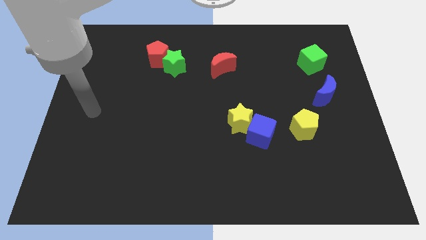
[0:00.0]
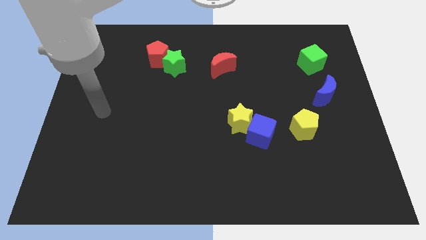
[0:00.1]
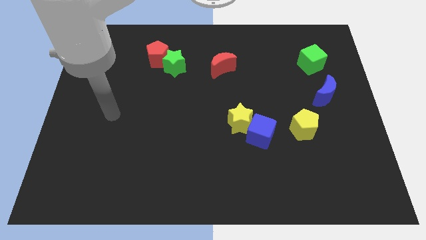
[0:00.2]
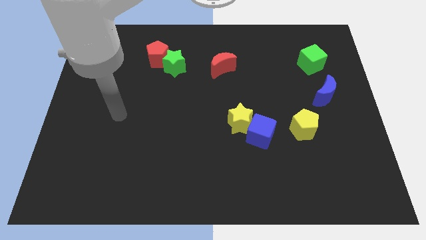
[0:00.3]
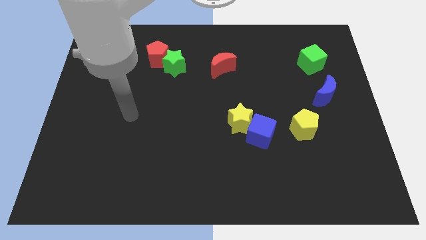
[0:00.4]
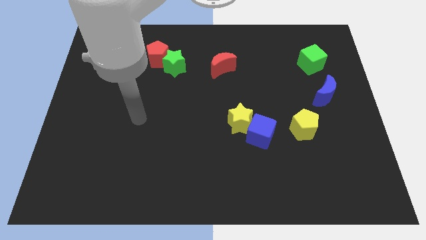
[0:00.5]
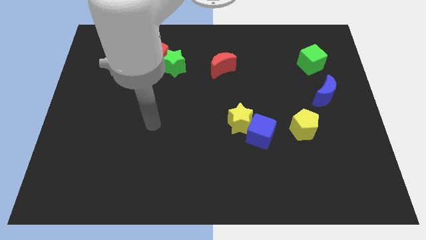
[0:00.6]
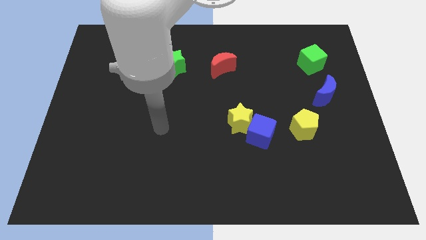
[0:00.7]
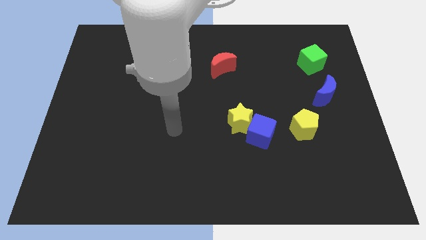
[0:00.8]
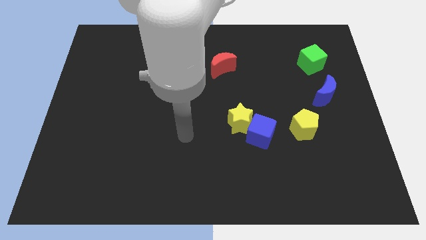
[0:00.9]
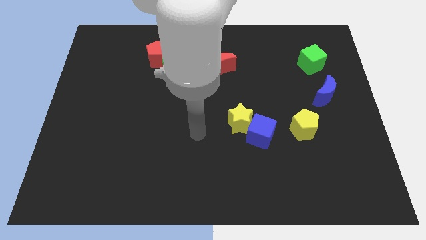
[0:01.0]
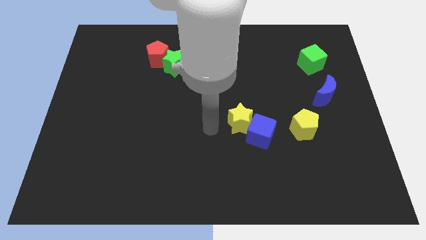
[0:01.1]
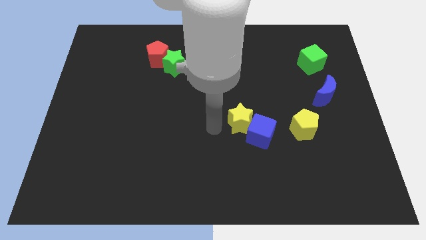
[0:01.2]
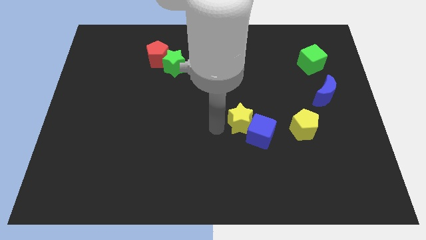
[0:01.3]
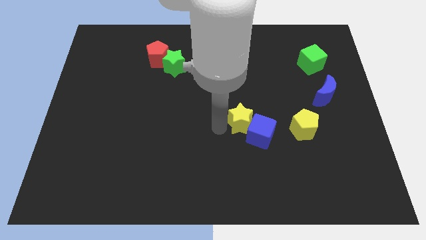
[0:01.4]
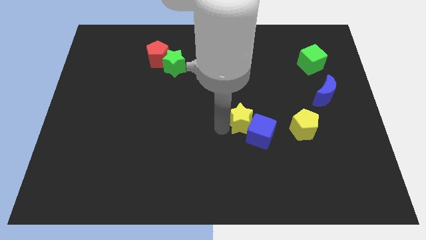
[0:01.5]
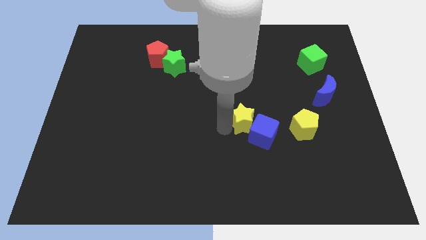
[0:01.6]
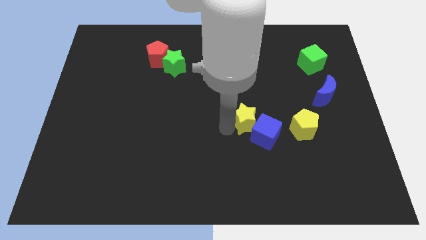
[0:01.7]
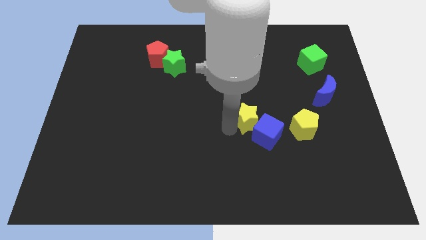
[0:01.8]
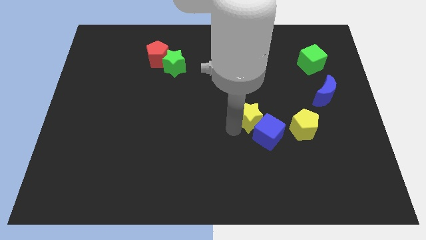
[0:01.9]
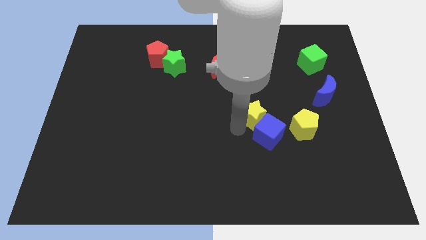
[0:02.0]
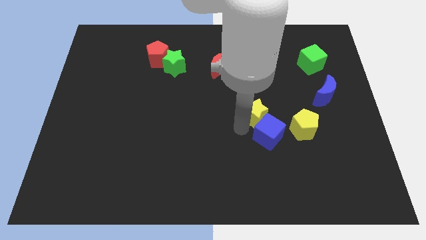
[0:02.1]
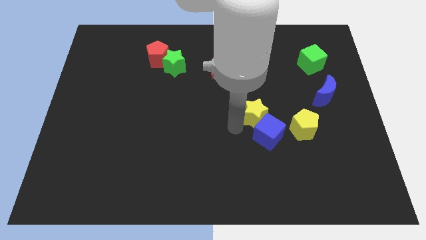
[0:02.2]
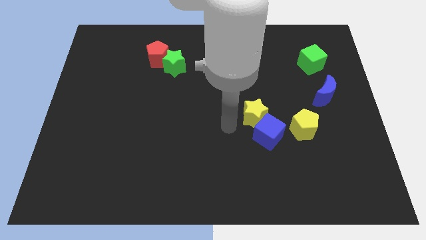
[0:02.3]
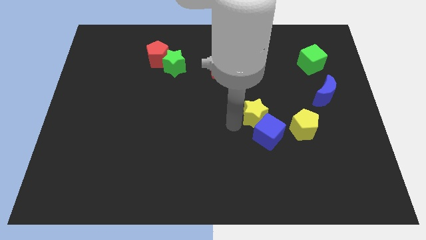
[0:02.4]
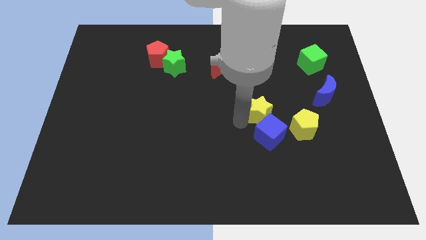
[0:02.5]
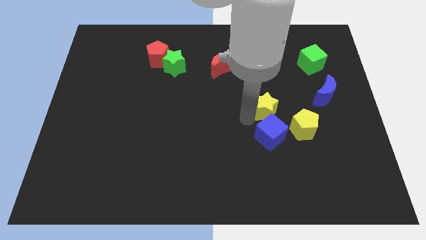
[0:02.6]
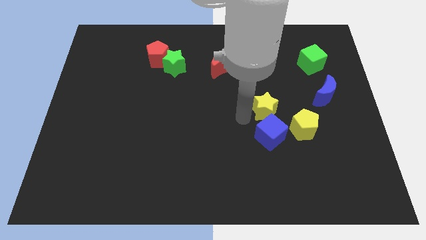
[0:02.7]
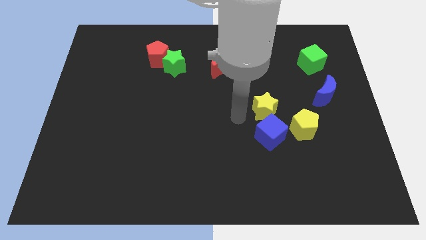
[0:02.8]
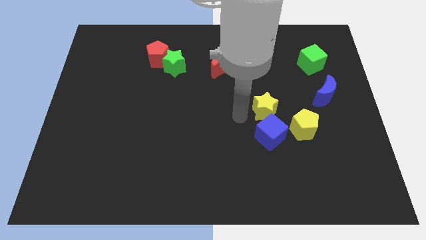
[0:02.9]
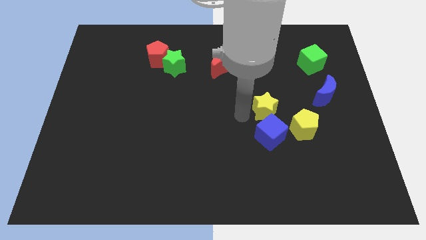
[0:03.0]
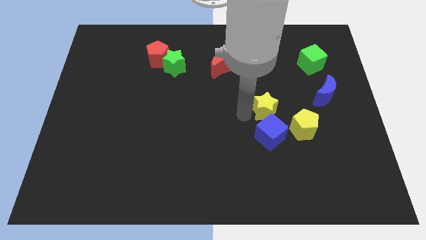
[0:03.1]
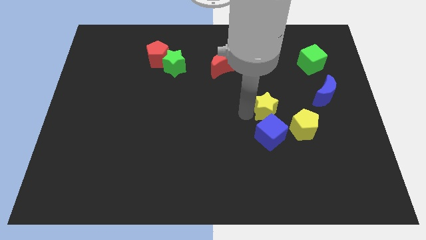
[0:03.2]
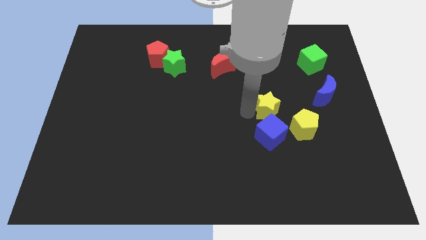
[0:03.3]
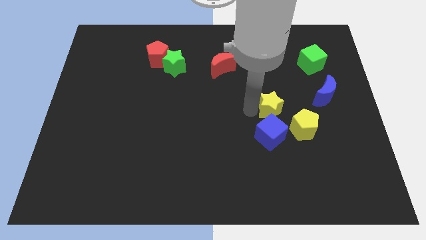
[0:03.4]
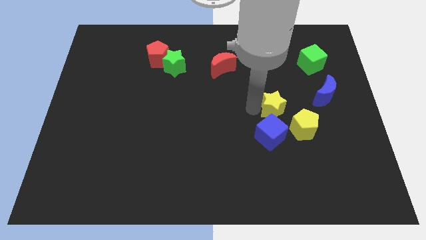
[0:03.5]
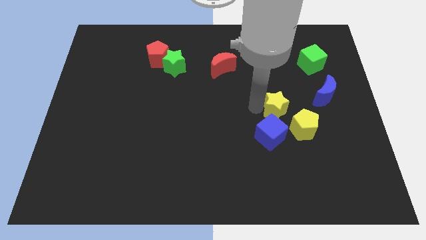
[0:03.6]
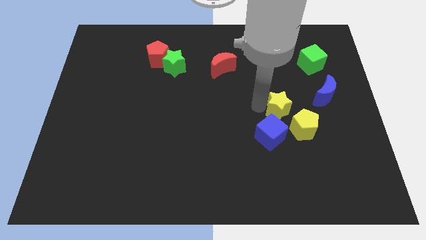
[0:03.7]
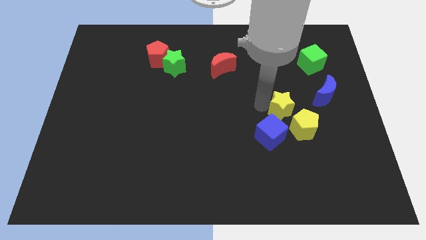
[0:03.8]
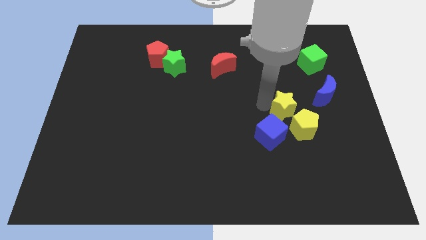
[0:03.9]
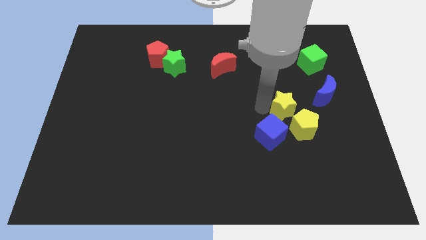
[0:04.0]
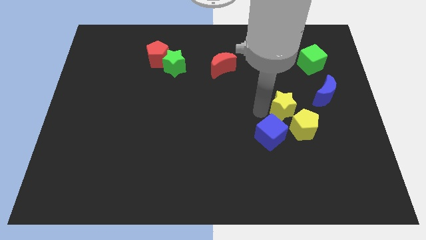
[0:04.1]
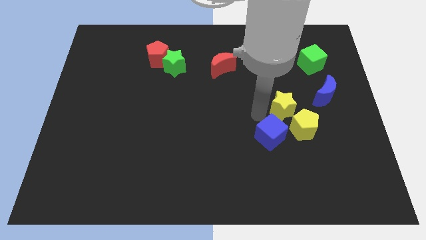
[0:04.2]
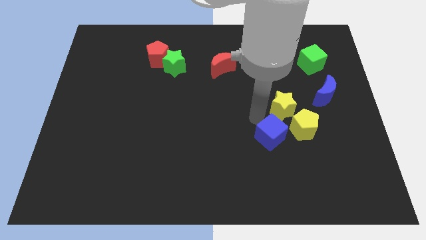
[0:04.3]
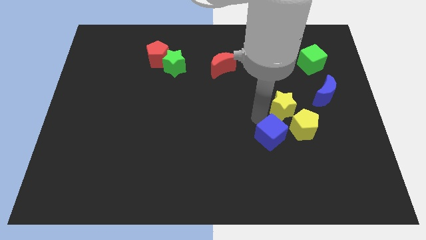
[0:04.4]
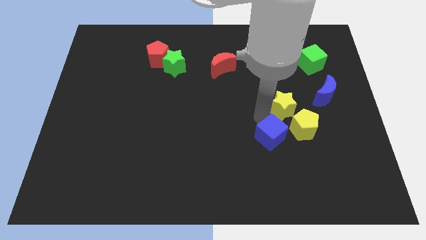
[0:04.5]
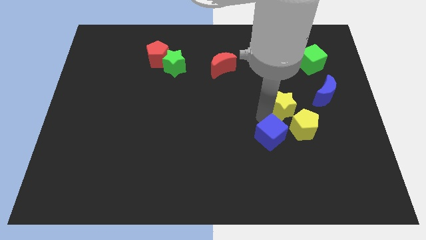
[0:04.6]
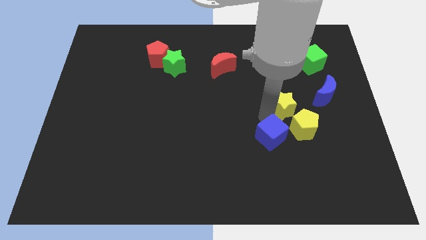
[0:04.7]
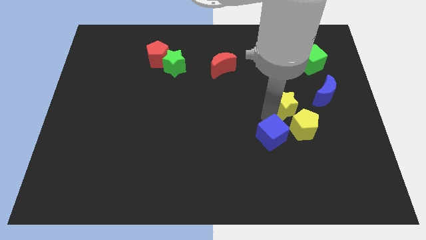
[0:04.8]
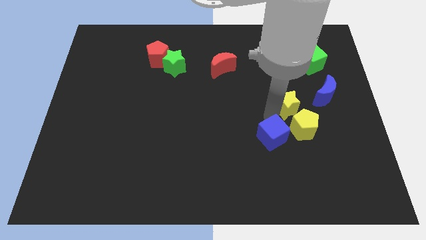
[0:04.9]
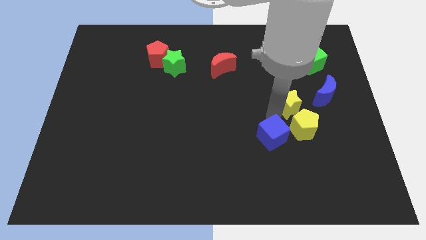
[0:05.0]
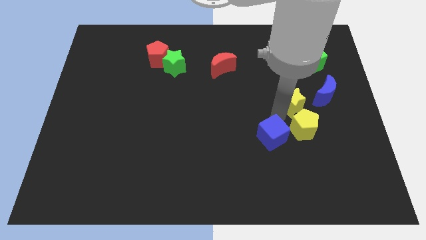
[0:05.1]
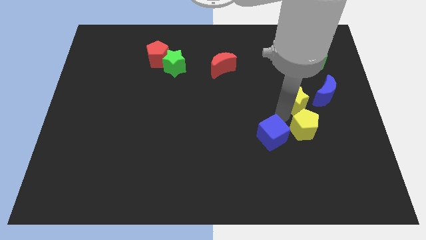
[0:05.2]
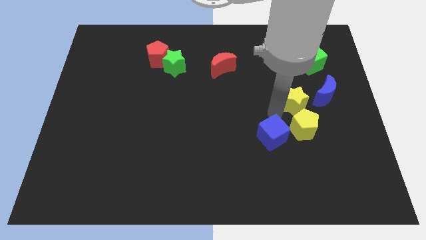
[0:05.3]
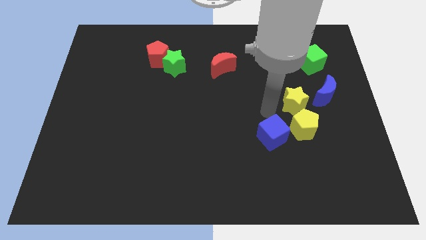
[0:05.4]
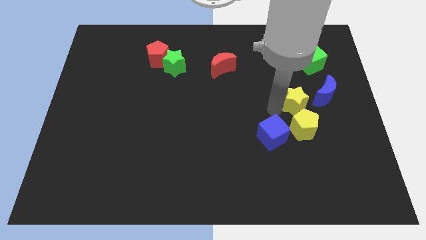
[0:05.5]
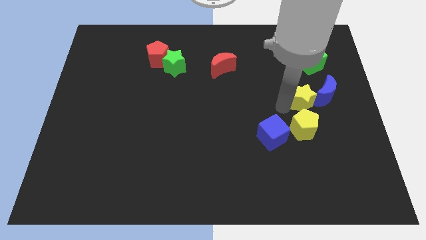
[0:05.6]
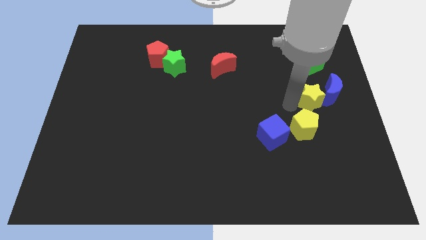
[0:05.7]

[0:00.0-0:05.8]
push the yellow star close to the blue moon

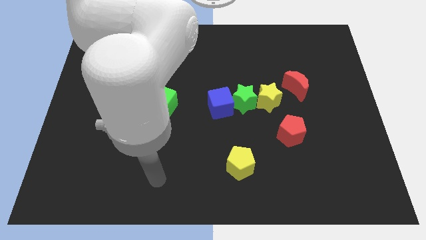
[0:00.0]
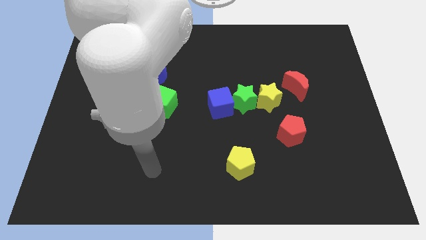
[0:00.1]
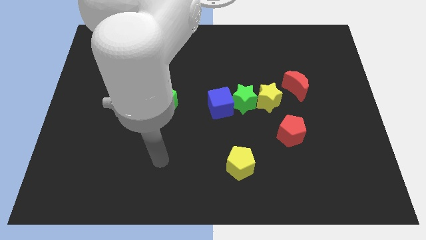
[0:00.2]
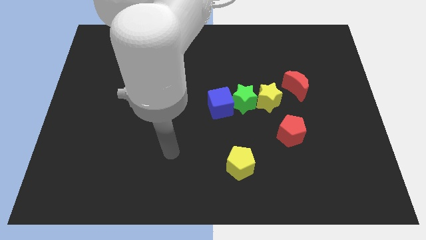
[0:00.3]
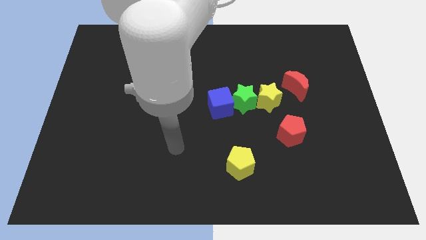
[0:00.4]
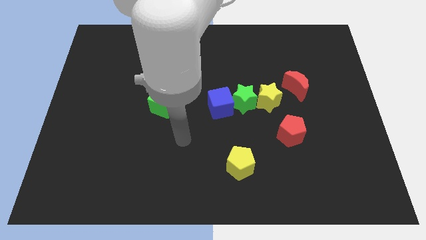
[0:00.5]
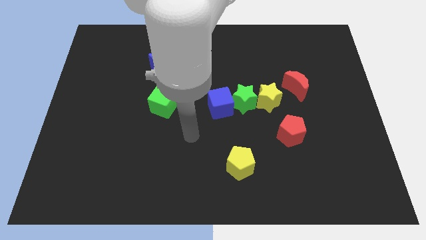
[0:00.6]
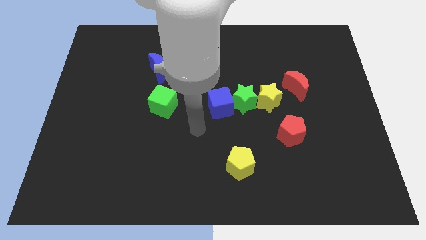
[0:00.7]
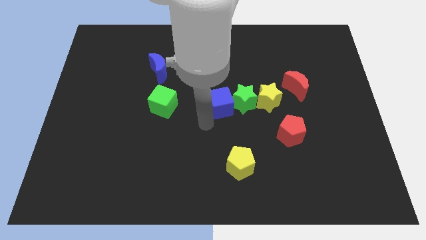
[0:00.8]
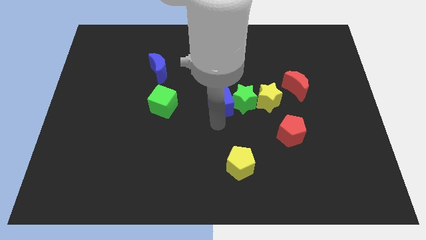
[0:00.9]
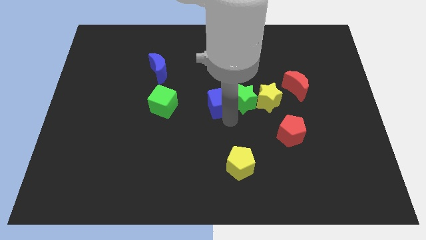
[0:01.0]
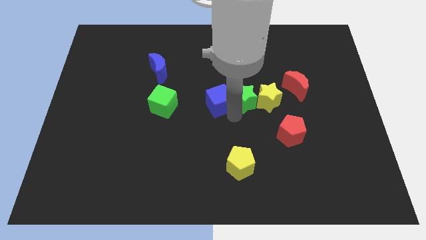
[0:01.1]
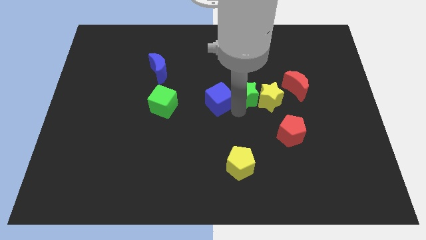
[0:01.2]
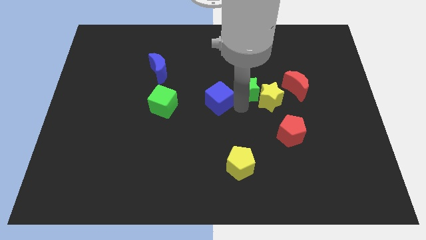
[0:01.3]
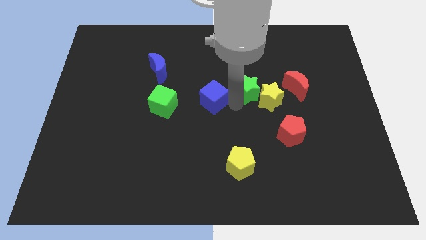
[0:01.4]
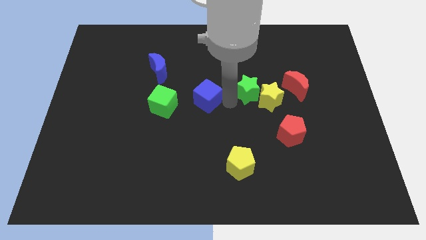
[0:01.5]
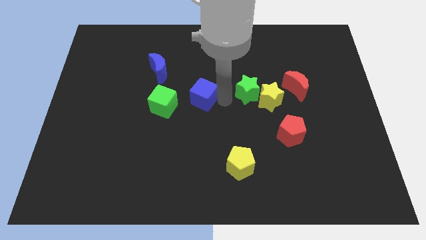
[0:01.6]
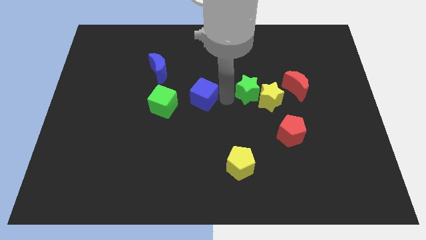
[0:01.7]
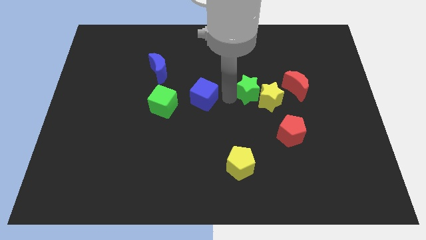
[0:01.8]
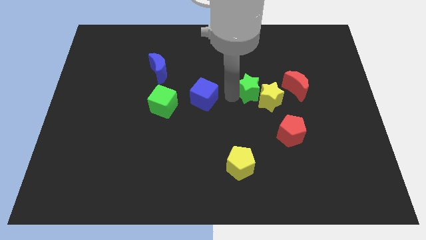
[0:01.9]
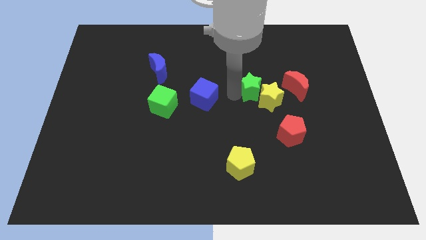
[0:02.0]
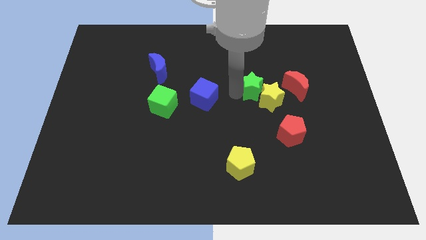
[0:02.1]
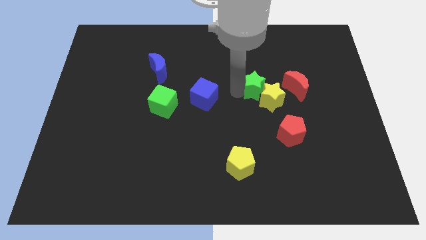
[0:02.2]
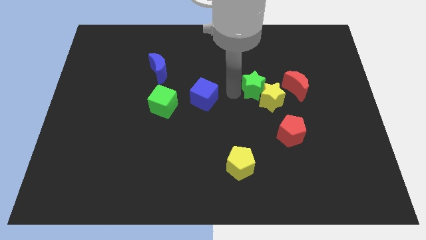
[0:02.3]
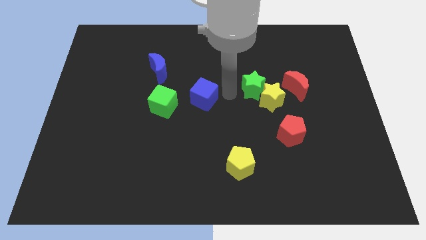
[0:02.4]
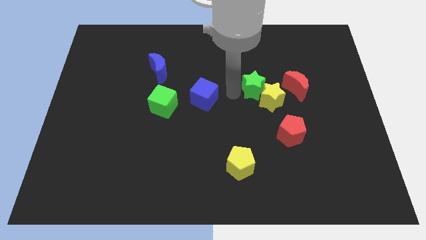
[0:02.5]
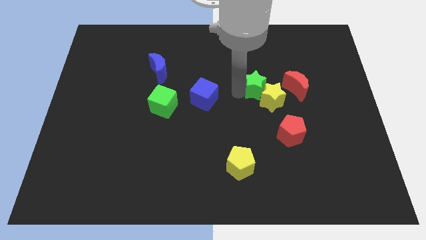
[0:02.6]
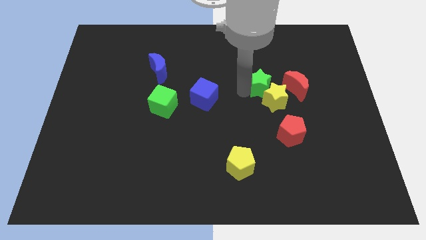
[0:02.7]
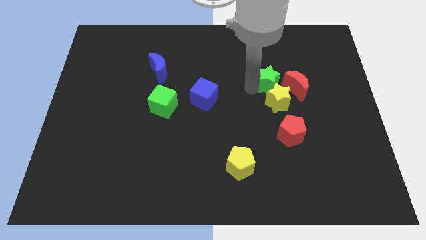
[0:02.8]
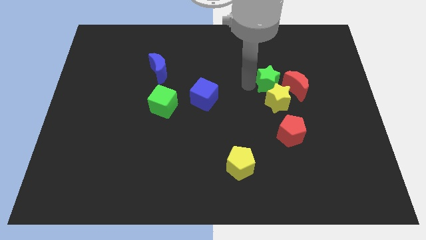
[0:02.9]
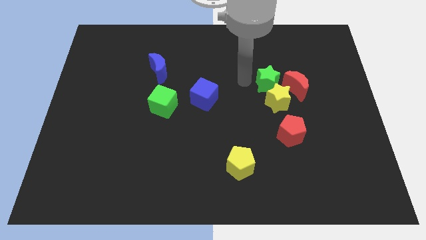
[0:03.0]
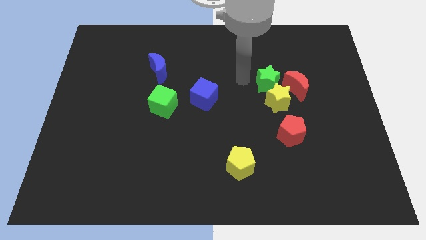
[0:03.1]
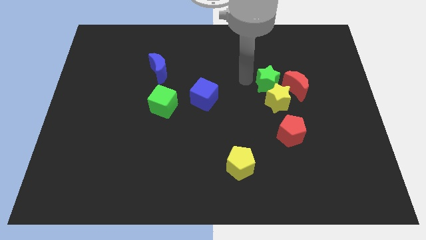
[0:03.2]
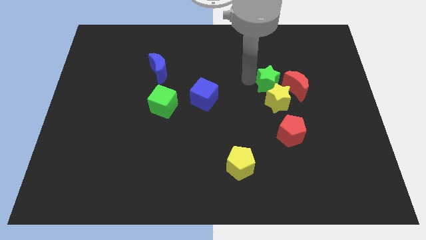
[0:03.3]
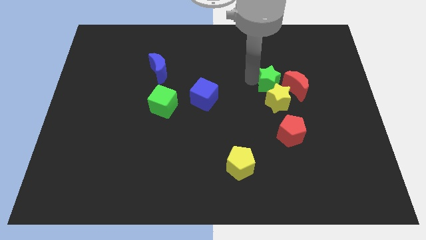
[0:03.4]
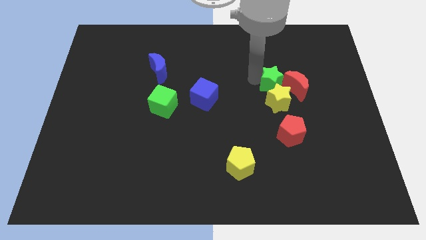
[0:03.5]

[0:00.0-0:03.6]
move the green star close to the red moon
